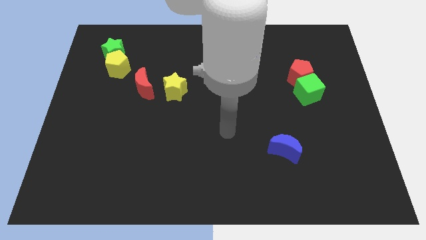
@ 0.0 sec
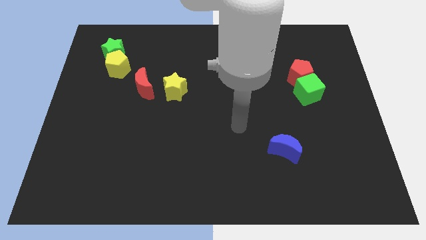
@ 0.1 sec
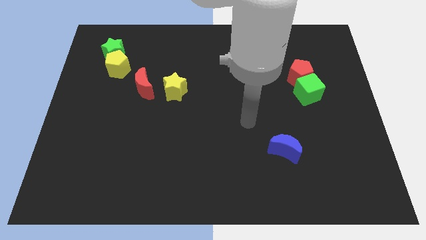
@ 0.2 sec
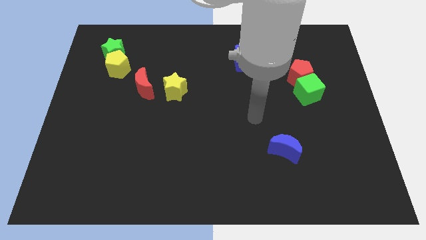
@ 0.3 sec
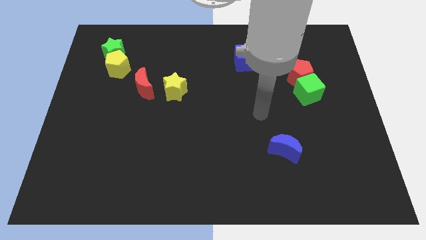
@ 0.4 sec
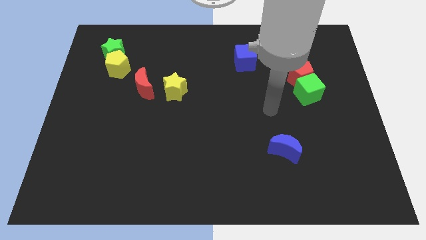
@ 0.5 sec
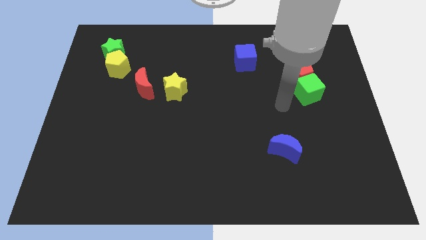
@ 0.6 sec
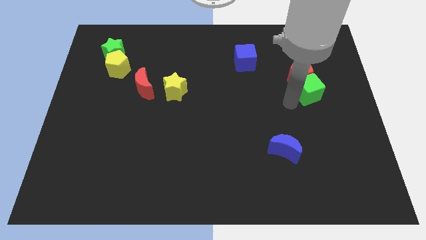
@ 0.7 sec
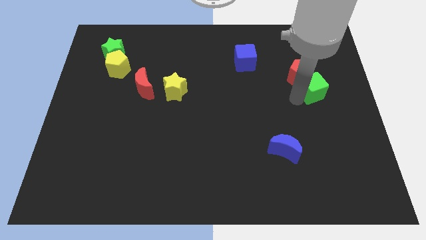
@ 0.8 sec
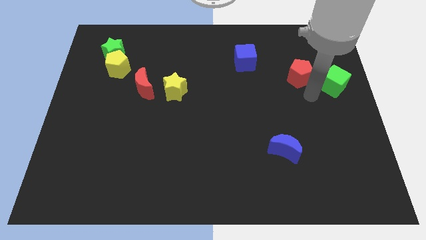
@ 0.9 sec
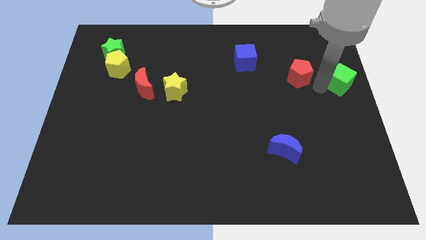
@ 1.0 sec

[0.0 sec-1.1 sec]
separate the red pentagon from the green cube

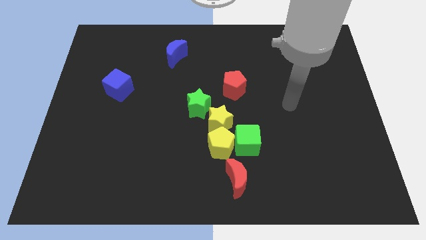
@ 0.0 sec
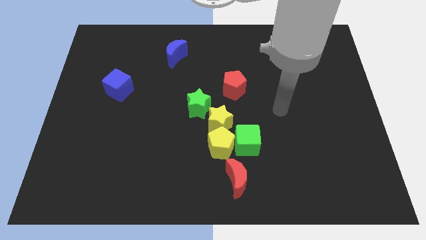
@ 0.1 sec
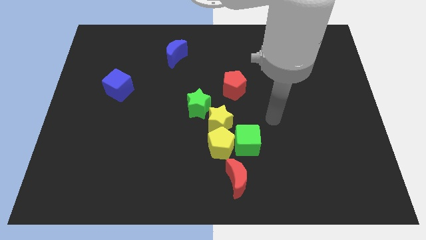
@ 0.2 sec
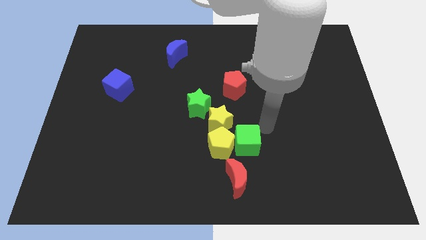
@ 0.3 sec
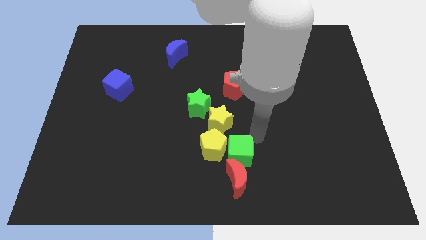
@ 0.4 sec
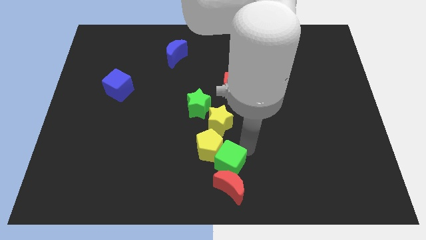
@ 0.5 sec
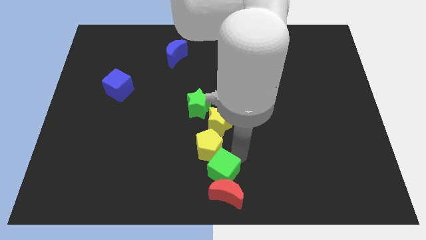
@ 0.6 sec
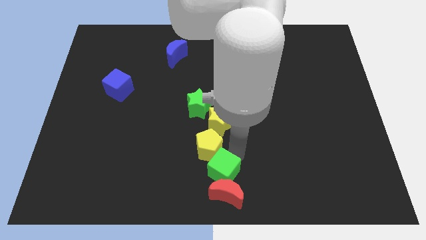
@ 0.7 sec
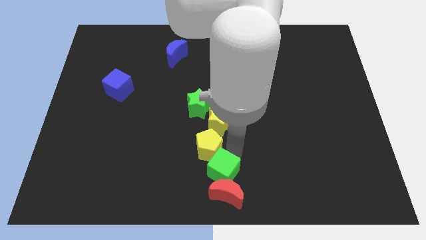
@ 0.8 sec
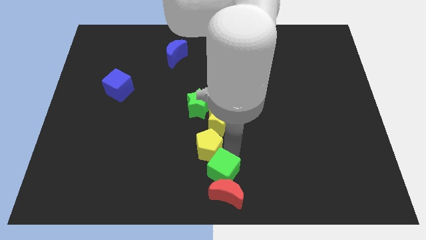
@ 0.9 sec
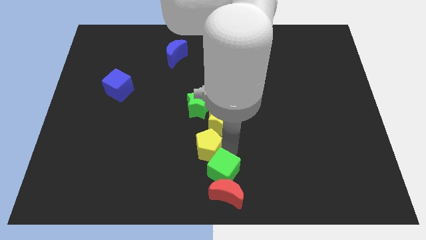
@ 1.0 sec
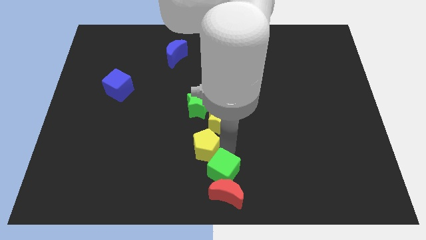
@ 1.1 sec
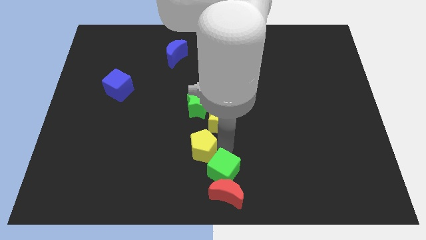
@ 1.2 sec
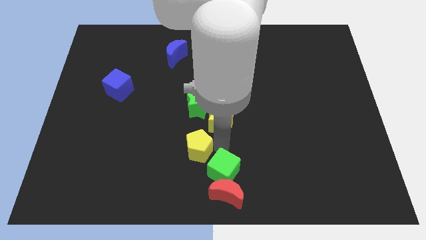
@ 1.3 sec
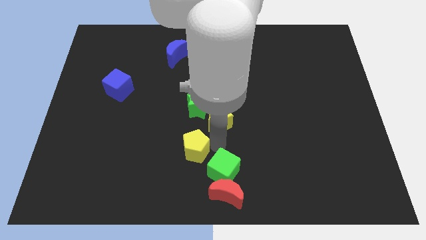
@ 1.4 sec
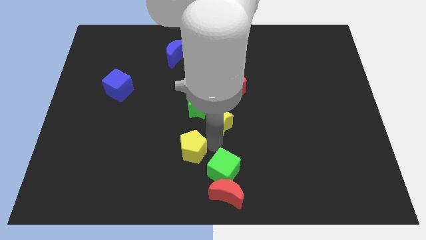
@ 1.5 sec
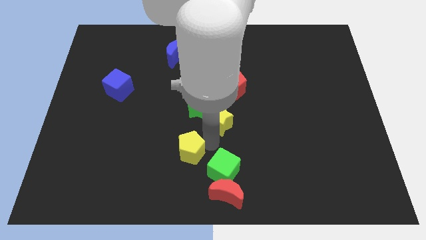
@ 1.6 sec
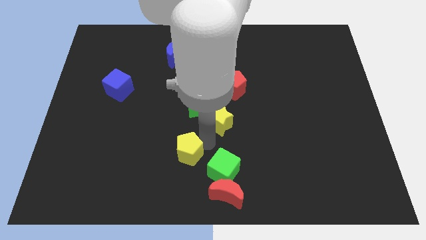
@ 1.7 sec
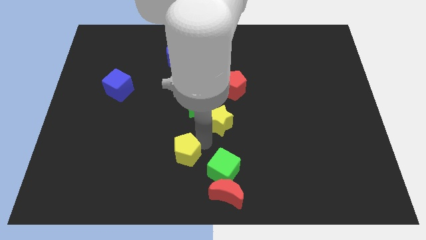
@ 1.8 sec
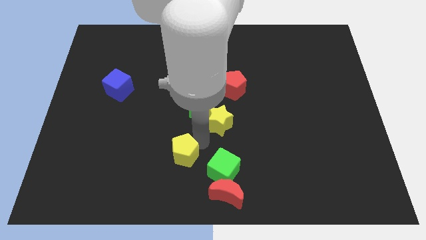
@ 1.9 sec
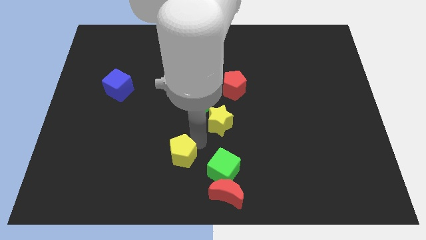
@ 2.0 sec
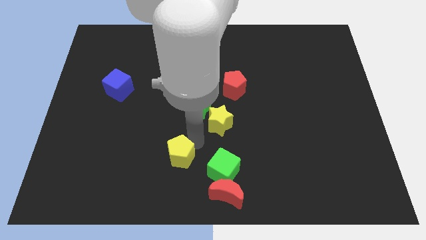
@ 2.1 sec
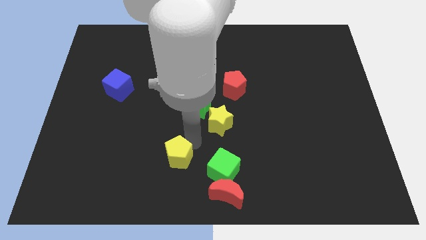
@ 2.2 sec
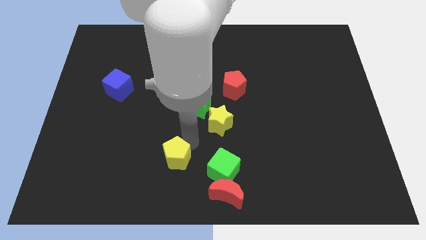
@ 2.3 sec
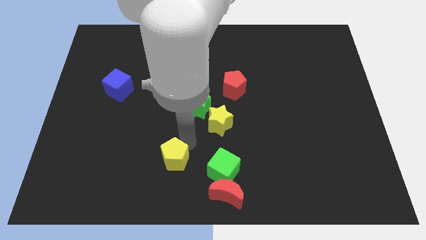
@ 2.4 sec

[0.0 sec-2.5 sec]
pull the yellow pentagon apart from the green cube, yellow star, and red moon

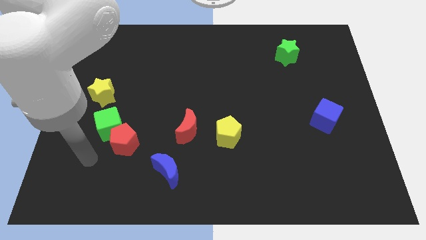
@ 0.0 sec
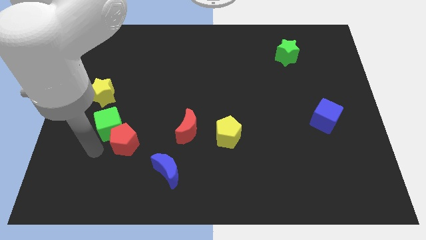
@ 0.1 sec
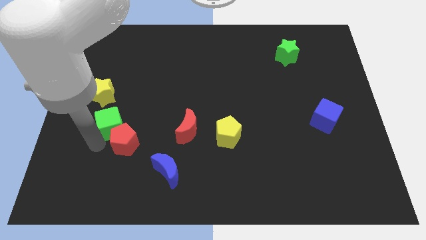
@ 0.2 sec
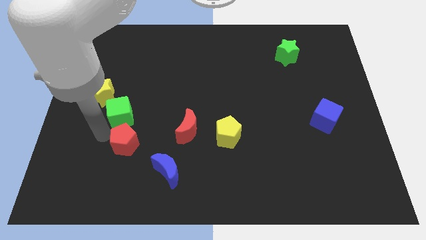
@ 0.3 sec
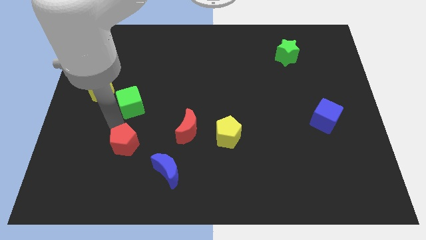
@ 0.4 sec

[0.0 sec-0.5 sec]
move the red pentagon away from the green cube

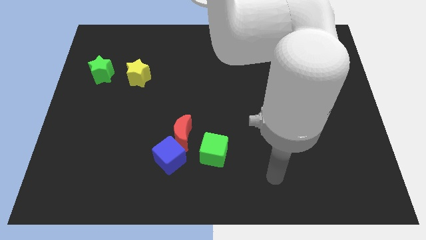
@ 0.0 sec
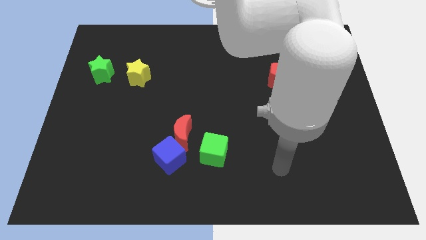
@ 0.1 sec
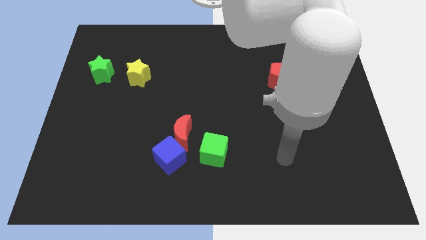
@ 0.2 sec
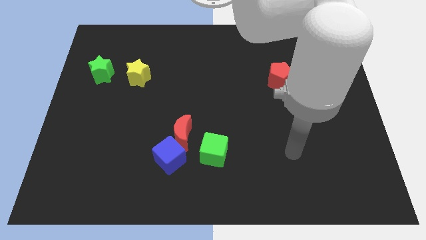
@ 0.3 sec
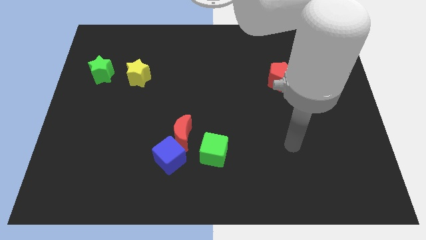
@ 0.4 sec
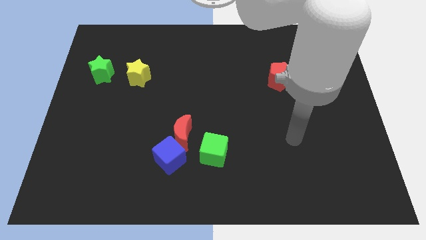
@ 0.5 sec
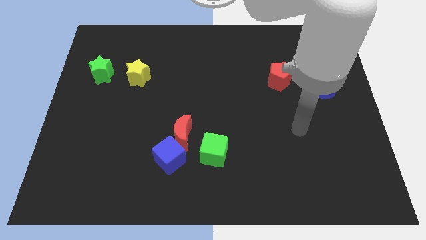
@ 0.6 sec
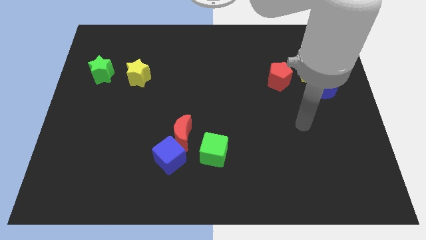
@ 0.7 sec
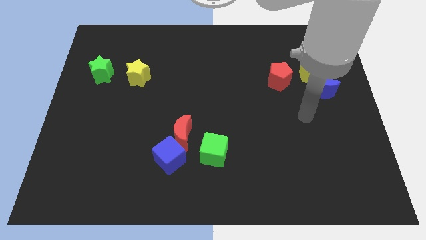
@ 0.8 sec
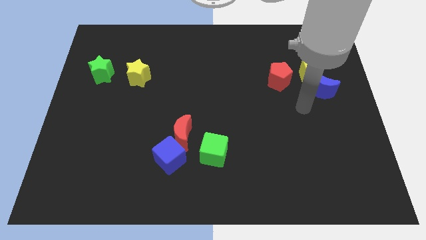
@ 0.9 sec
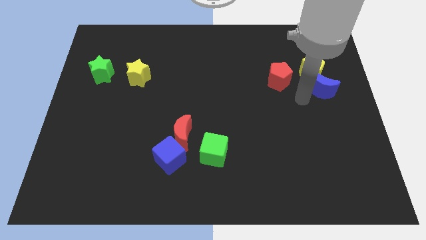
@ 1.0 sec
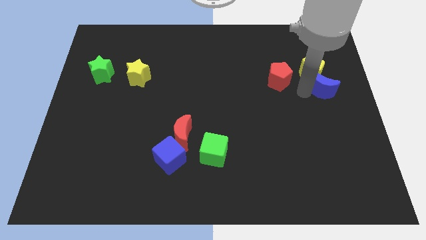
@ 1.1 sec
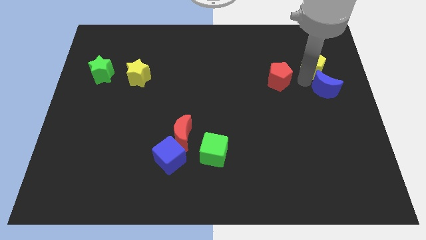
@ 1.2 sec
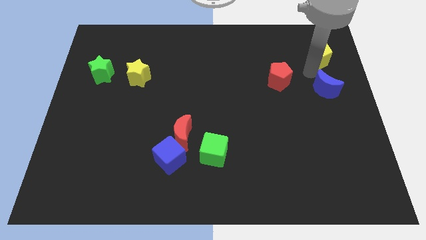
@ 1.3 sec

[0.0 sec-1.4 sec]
pull the blue moon apart from the yellow pentagon

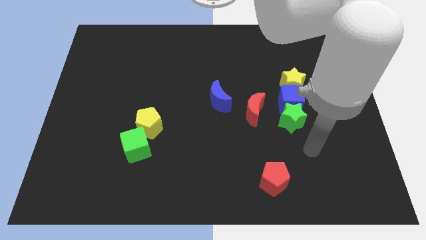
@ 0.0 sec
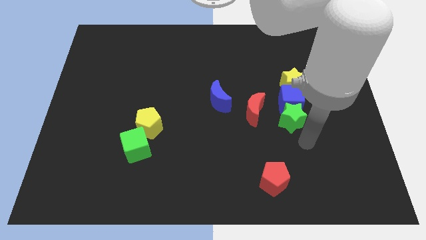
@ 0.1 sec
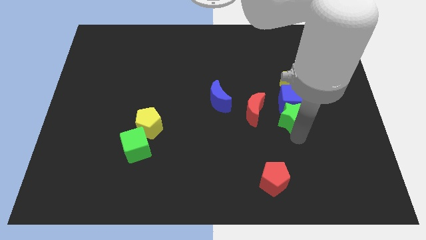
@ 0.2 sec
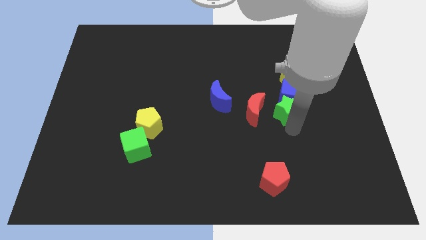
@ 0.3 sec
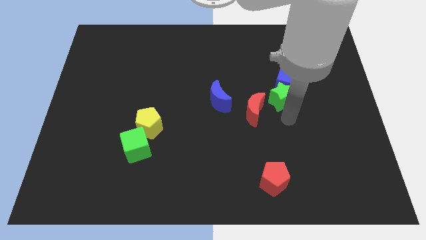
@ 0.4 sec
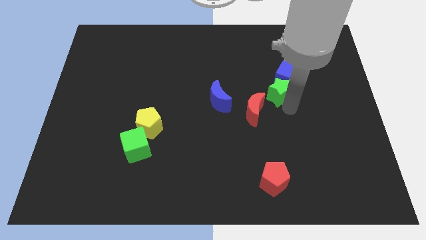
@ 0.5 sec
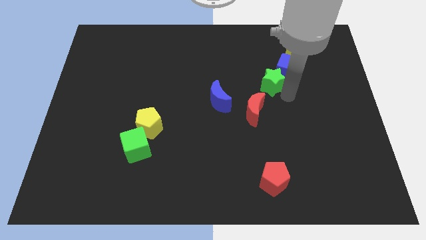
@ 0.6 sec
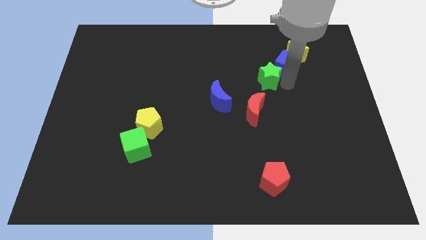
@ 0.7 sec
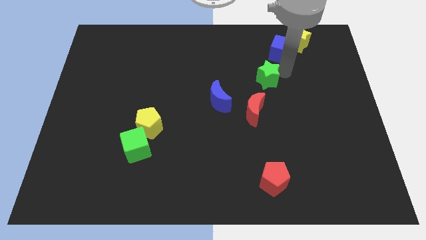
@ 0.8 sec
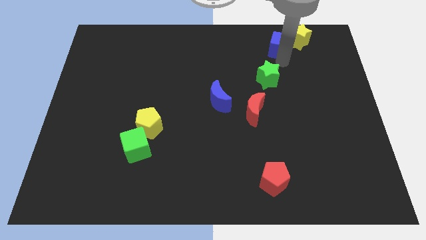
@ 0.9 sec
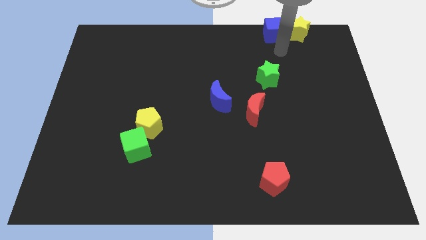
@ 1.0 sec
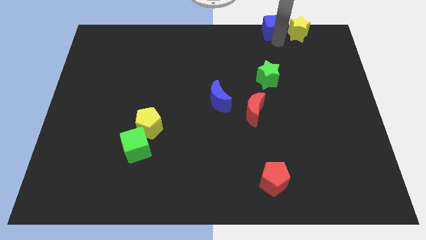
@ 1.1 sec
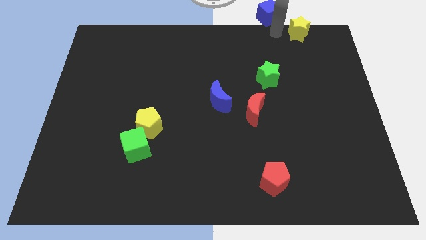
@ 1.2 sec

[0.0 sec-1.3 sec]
move the yellow star away from the blue cube

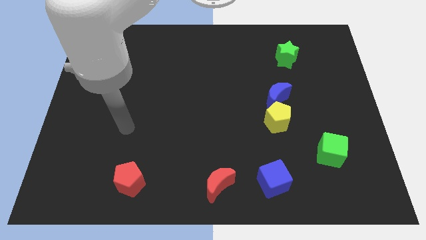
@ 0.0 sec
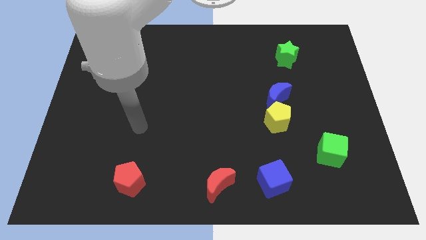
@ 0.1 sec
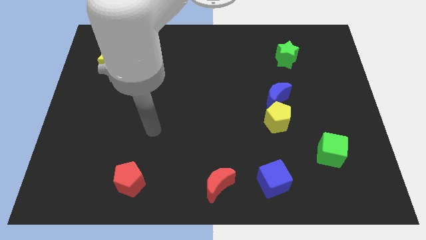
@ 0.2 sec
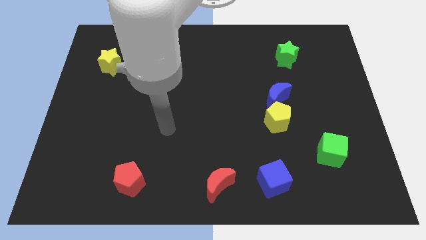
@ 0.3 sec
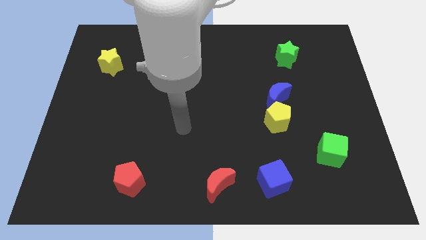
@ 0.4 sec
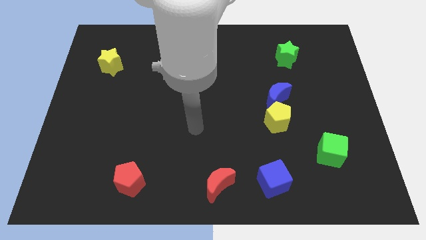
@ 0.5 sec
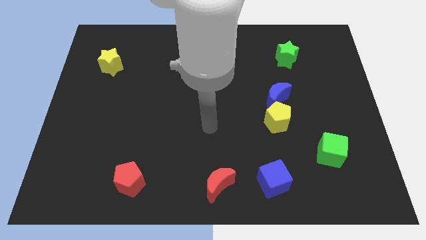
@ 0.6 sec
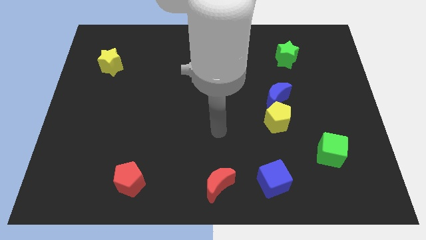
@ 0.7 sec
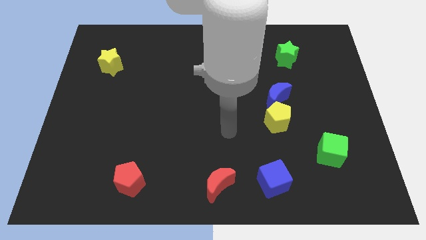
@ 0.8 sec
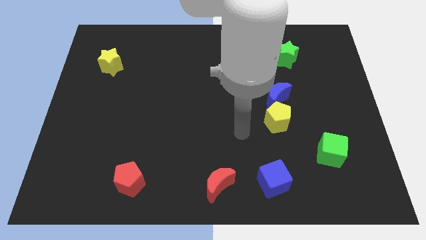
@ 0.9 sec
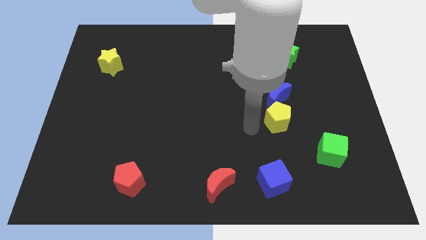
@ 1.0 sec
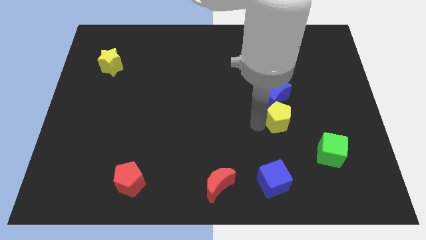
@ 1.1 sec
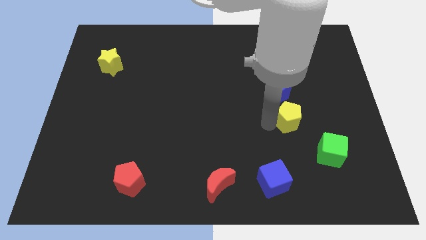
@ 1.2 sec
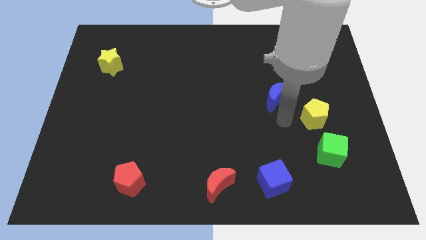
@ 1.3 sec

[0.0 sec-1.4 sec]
move the blue moon away from the yellow pentagon

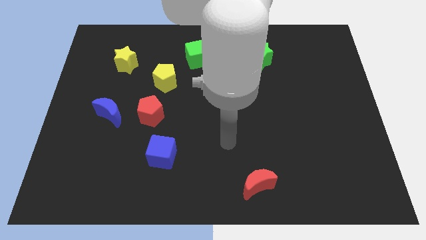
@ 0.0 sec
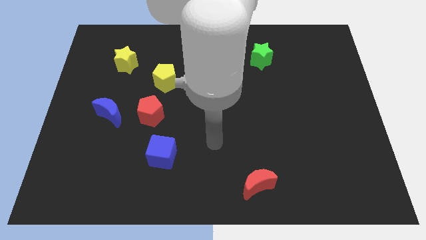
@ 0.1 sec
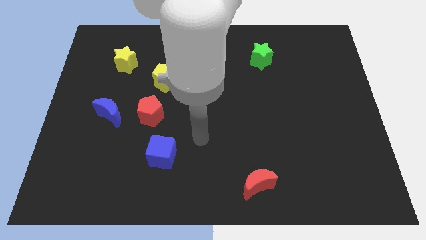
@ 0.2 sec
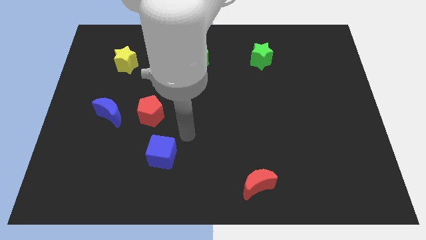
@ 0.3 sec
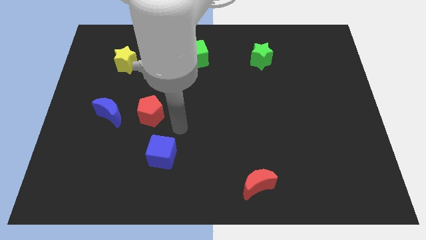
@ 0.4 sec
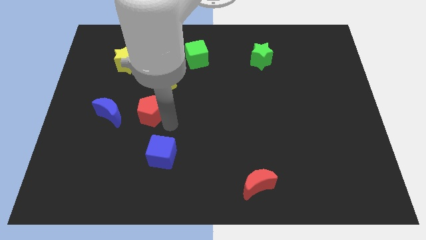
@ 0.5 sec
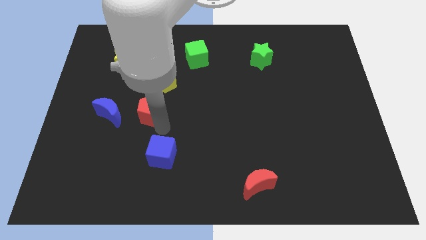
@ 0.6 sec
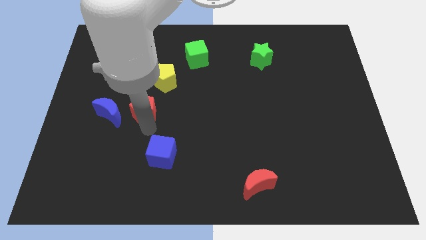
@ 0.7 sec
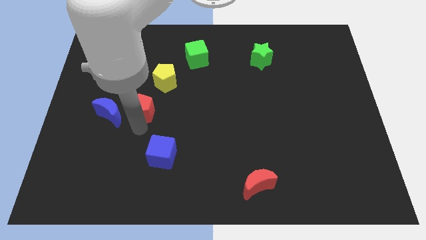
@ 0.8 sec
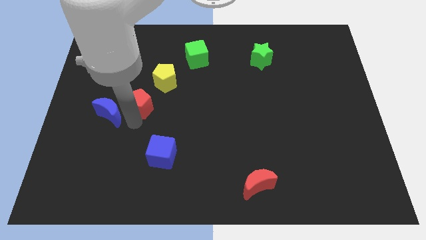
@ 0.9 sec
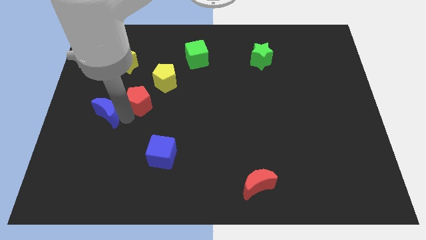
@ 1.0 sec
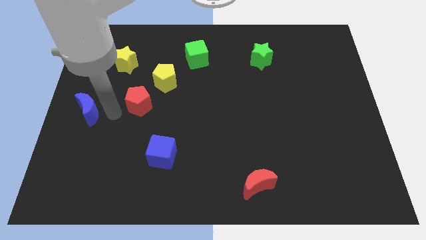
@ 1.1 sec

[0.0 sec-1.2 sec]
separate the red pentagon from the blue moon
